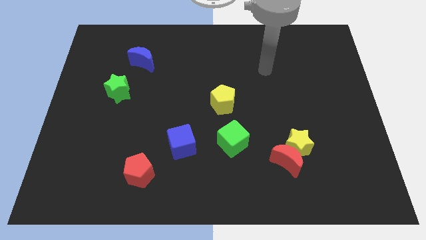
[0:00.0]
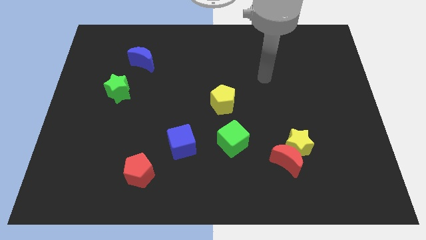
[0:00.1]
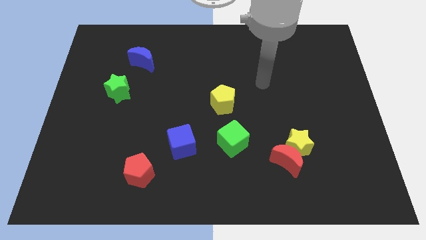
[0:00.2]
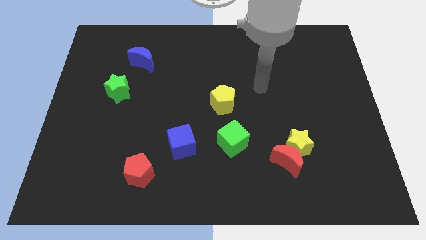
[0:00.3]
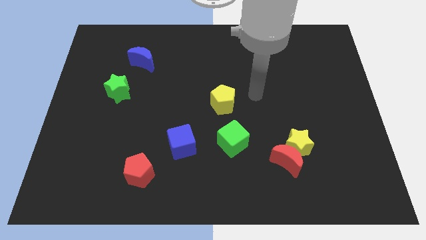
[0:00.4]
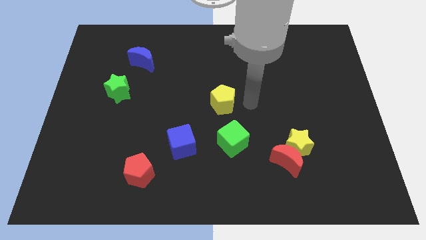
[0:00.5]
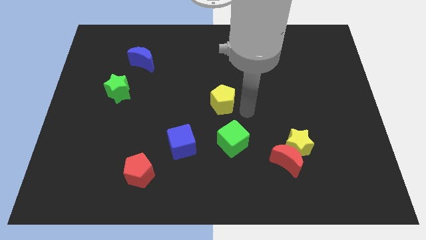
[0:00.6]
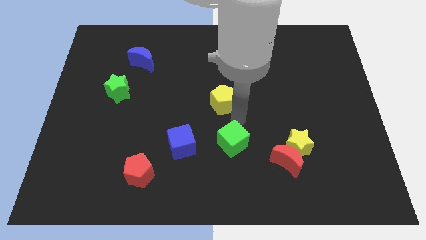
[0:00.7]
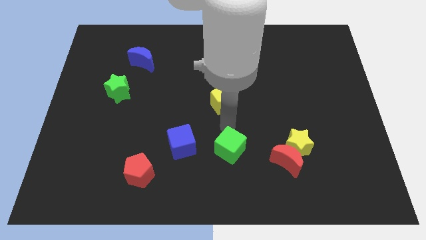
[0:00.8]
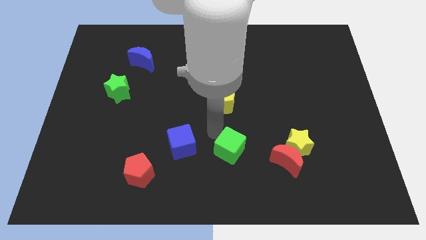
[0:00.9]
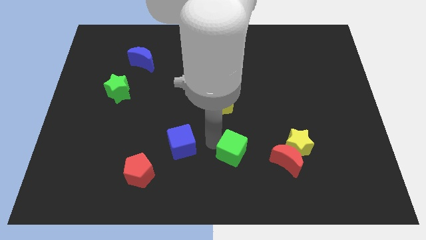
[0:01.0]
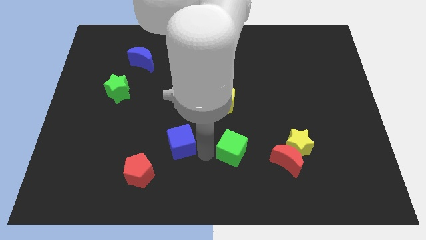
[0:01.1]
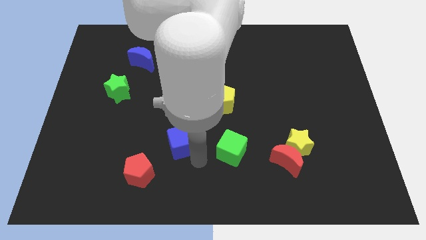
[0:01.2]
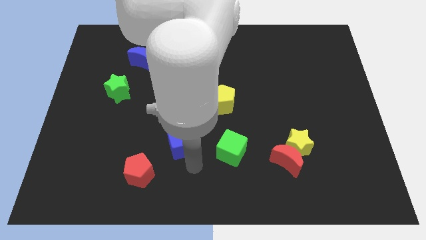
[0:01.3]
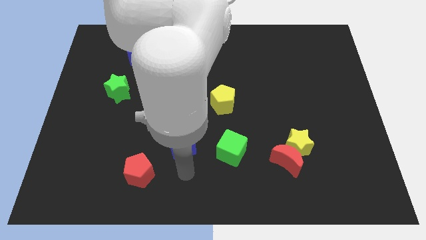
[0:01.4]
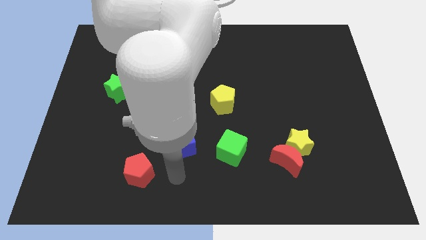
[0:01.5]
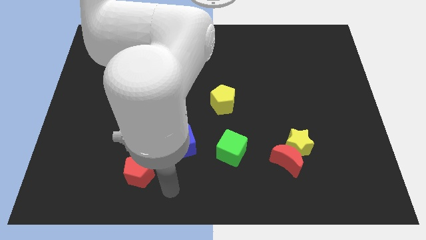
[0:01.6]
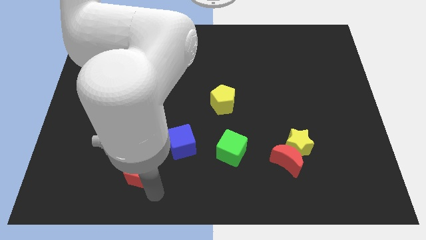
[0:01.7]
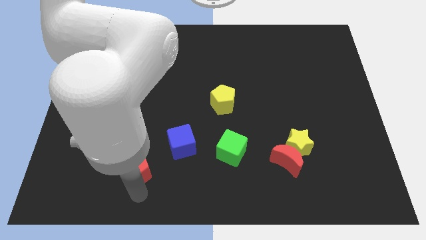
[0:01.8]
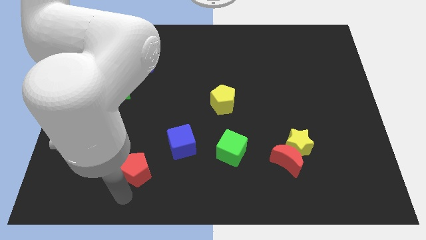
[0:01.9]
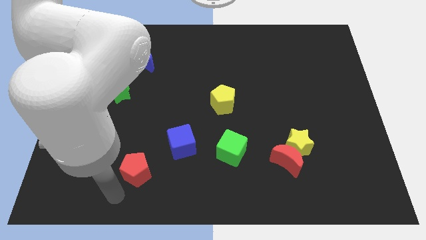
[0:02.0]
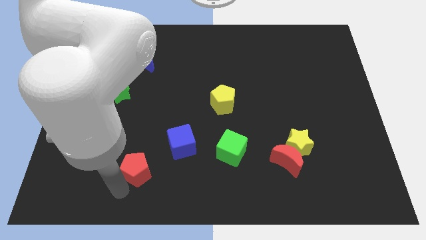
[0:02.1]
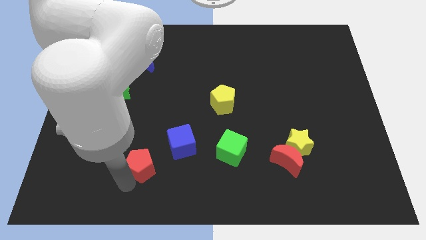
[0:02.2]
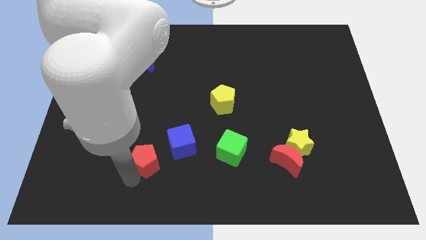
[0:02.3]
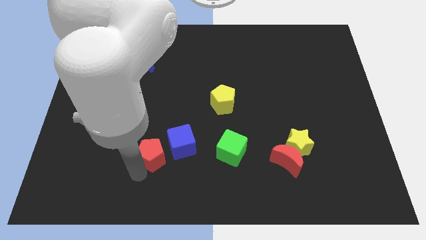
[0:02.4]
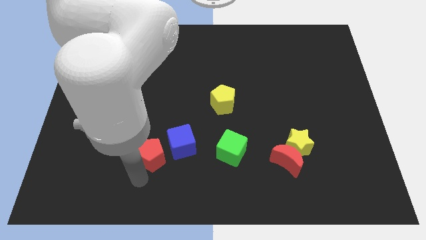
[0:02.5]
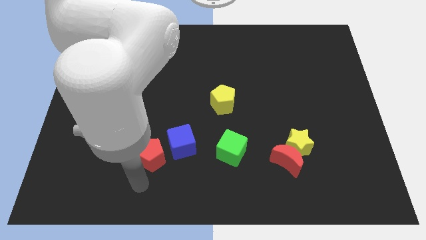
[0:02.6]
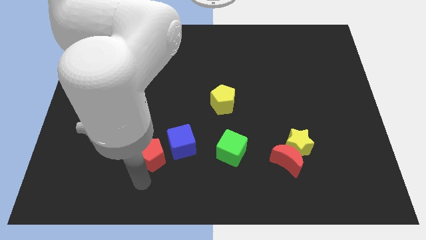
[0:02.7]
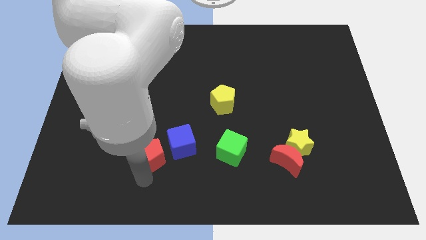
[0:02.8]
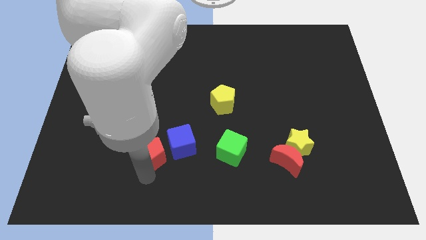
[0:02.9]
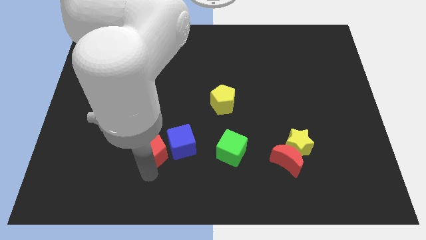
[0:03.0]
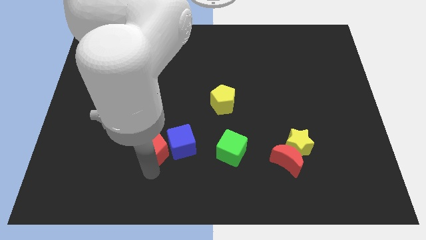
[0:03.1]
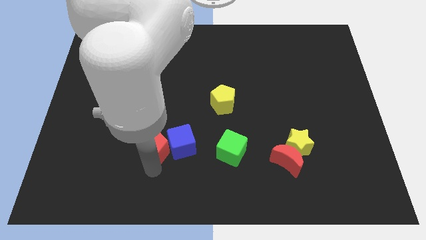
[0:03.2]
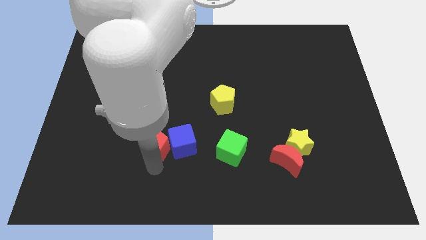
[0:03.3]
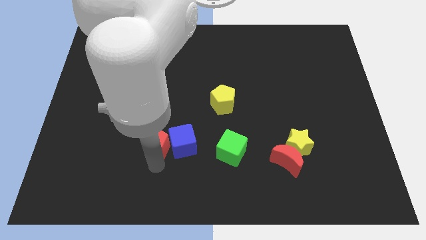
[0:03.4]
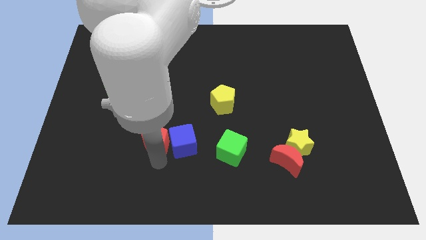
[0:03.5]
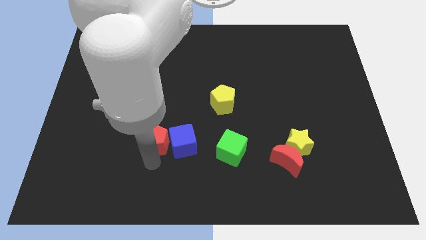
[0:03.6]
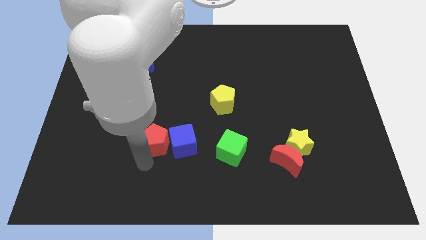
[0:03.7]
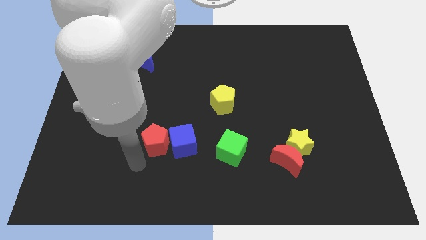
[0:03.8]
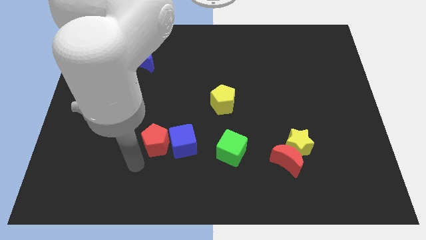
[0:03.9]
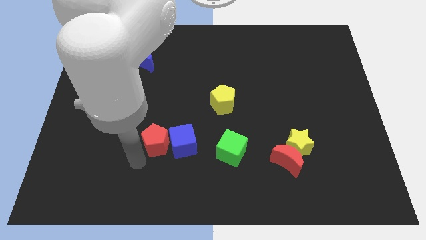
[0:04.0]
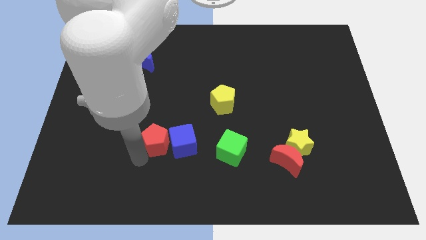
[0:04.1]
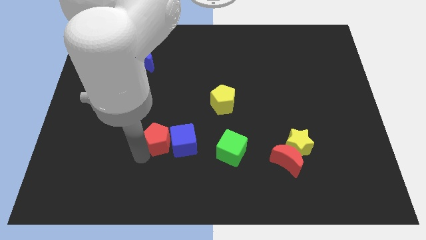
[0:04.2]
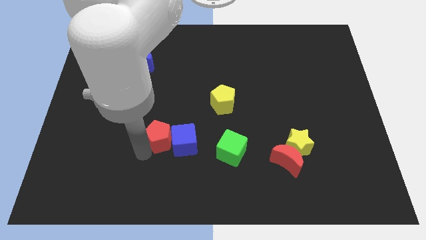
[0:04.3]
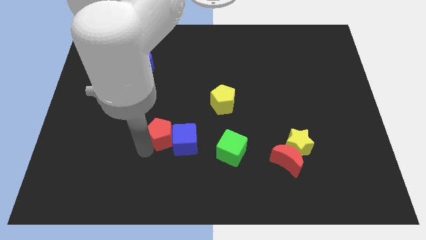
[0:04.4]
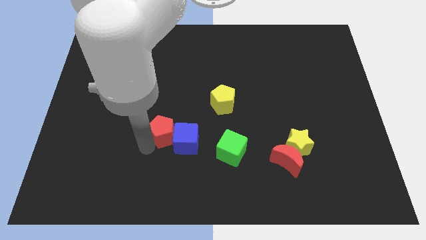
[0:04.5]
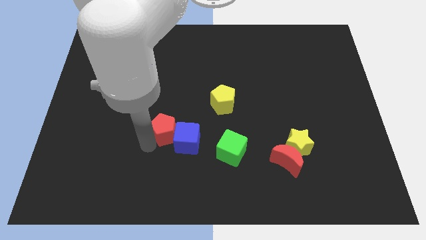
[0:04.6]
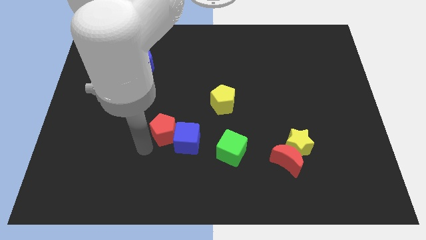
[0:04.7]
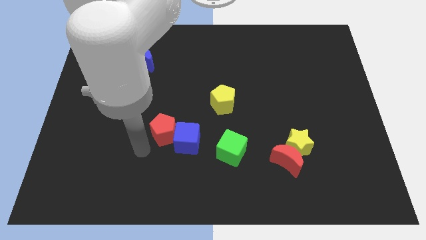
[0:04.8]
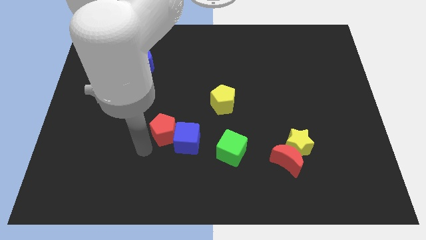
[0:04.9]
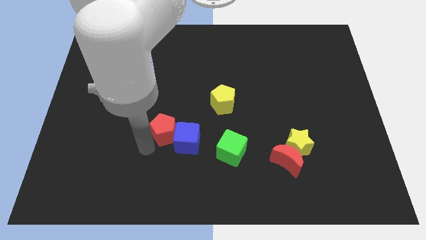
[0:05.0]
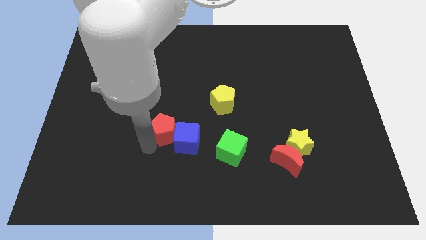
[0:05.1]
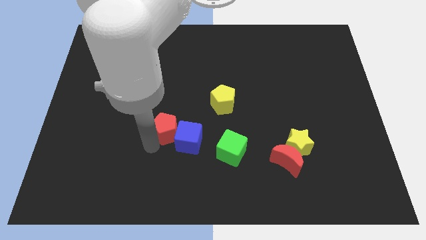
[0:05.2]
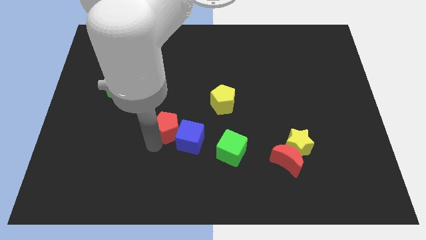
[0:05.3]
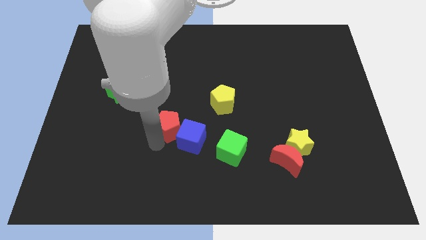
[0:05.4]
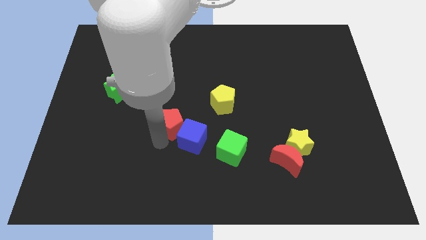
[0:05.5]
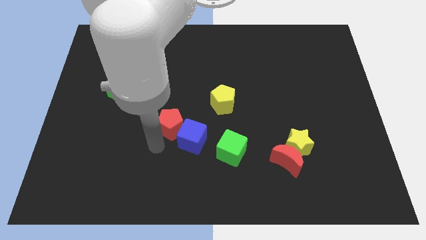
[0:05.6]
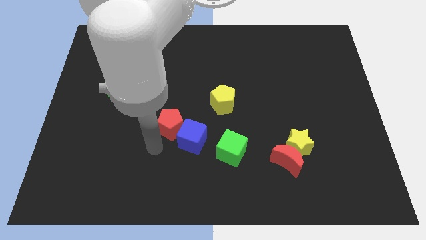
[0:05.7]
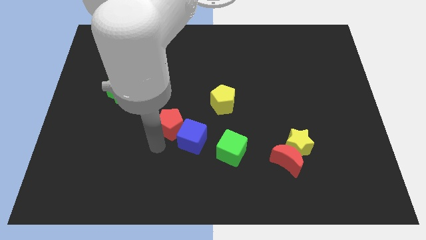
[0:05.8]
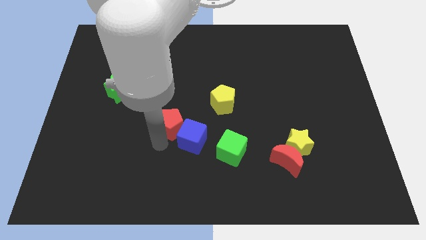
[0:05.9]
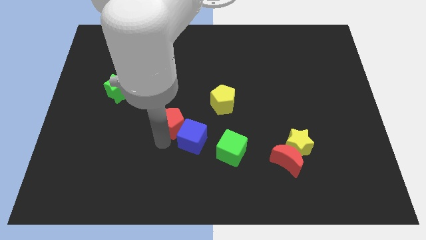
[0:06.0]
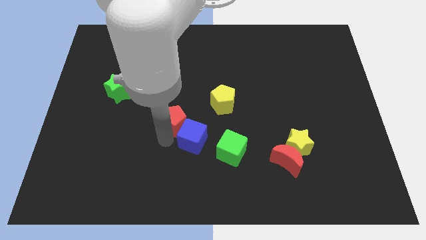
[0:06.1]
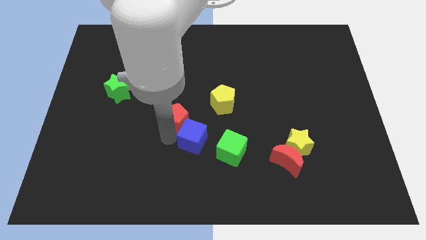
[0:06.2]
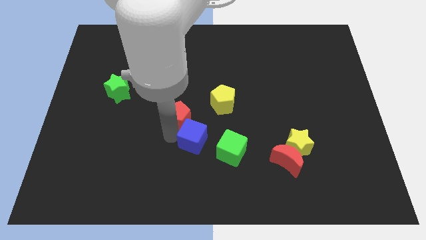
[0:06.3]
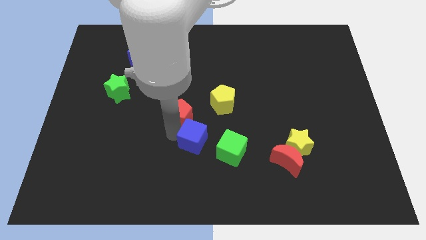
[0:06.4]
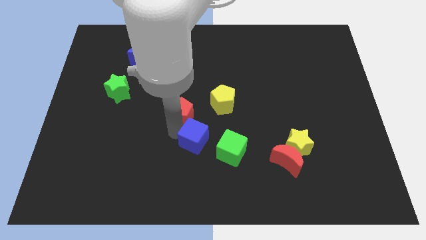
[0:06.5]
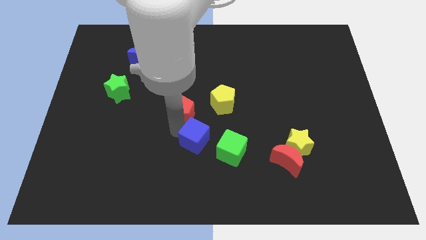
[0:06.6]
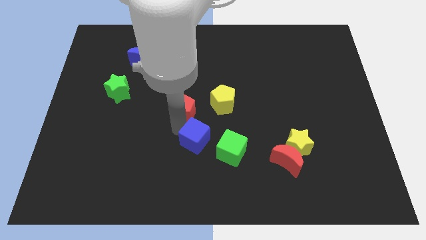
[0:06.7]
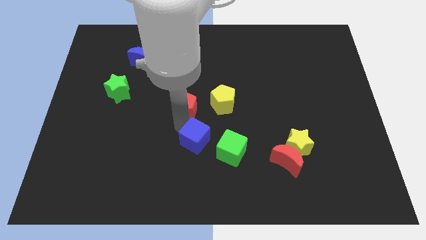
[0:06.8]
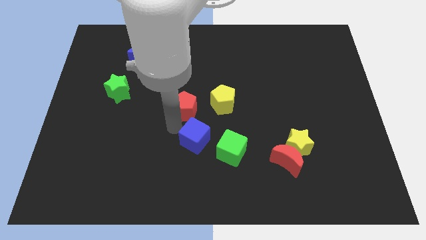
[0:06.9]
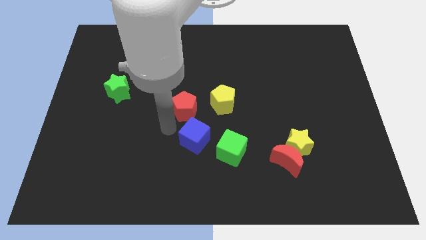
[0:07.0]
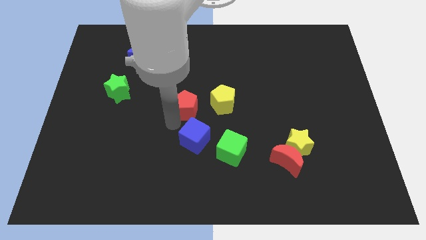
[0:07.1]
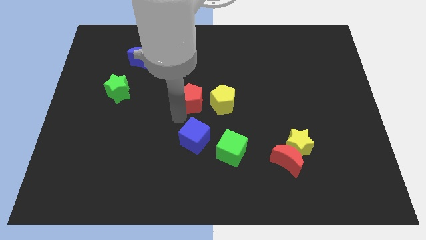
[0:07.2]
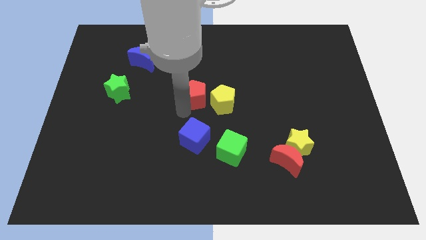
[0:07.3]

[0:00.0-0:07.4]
move the red pentagon diagonally up and to the right

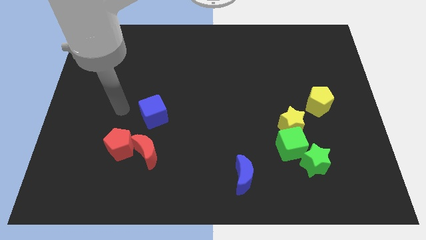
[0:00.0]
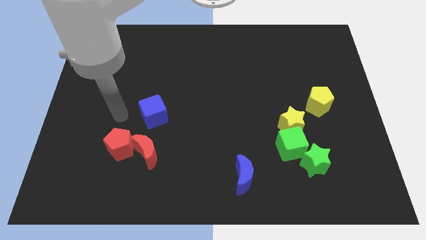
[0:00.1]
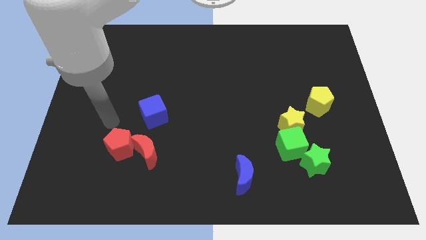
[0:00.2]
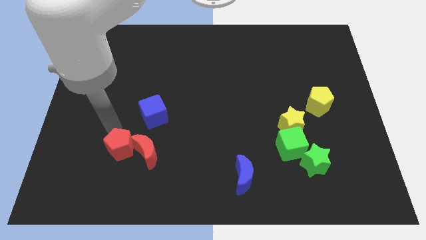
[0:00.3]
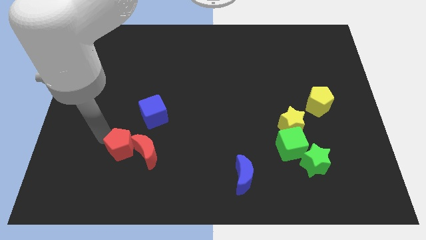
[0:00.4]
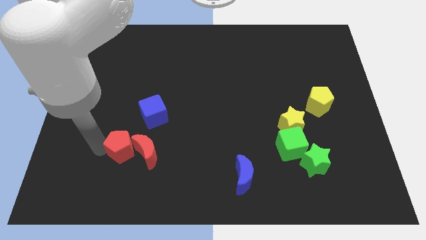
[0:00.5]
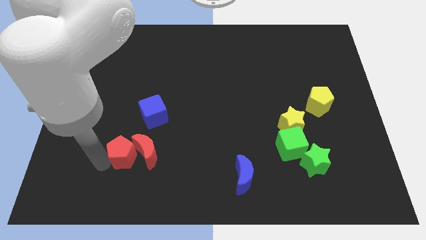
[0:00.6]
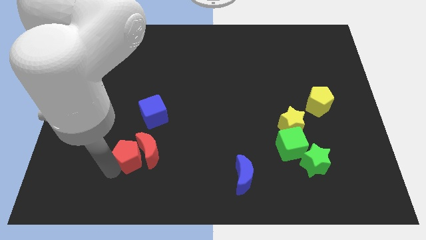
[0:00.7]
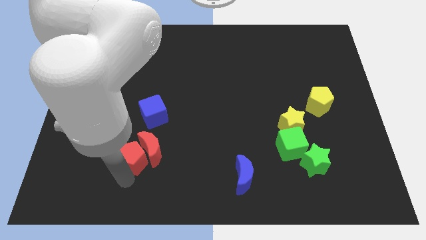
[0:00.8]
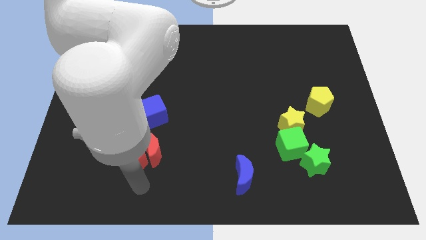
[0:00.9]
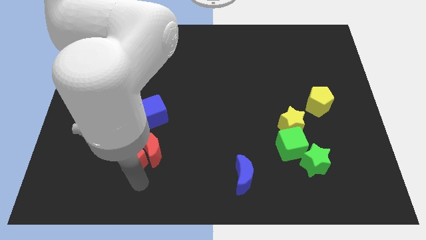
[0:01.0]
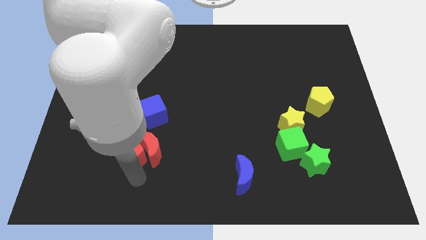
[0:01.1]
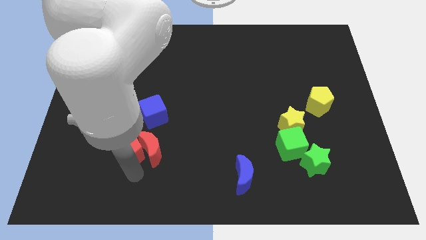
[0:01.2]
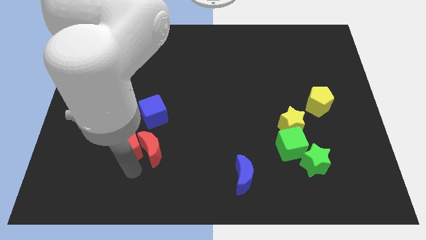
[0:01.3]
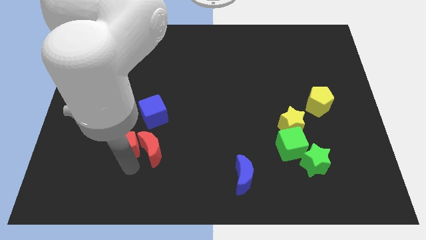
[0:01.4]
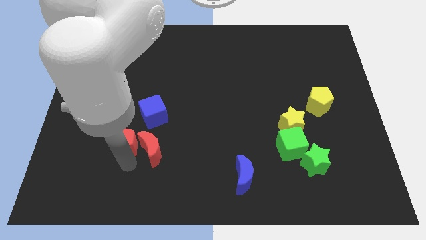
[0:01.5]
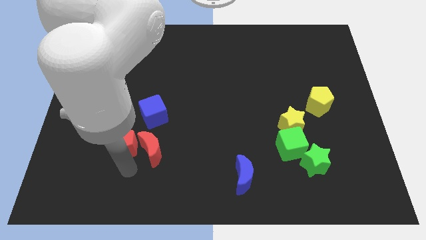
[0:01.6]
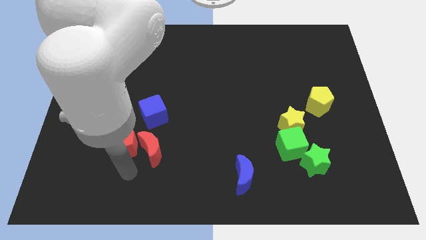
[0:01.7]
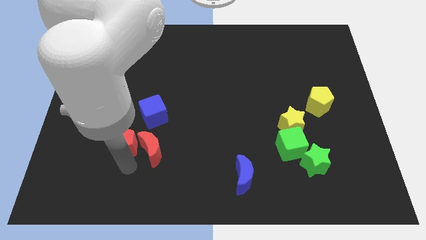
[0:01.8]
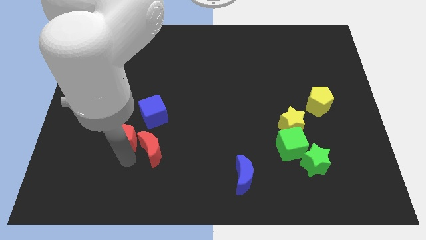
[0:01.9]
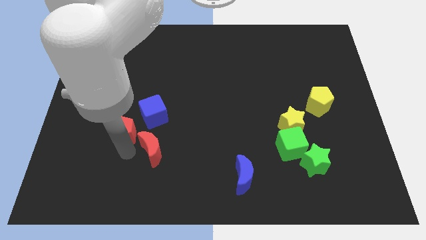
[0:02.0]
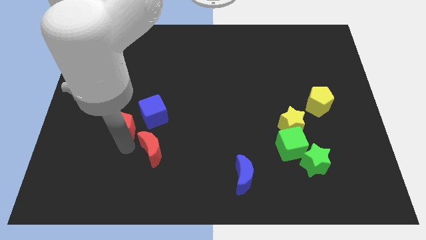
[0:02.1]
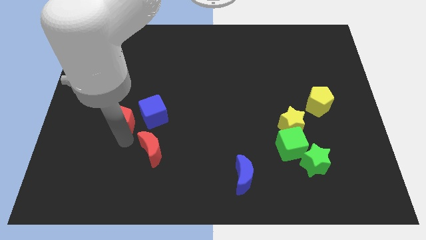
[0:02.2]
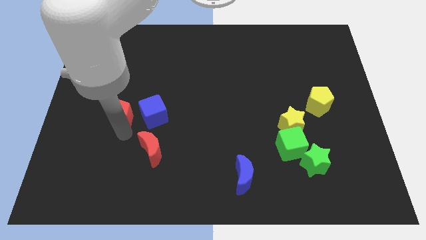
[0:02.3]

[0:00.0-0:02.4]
push the red pentagon upwards slightly
